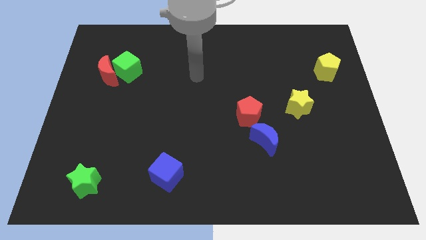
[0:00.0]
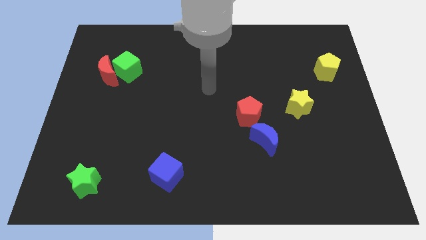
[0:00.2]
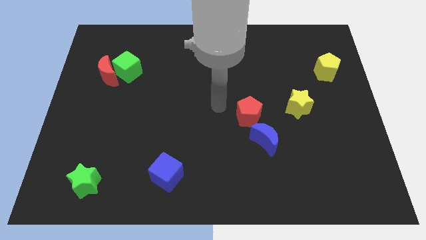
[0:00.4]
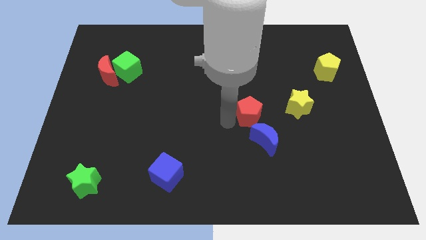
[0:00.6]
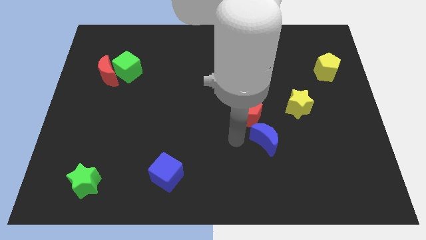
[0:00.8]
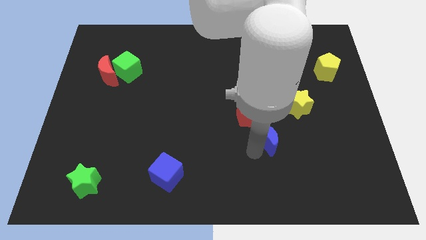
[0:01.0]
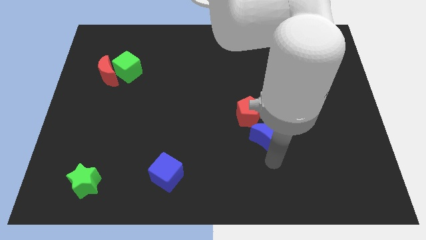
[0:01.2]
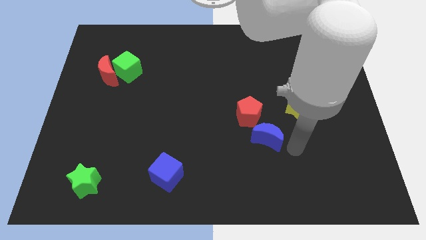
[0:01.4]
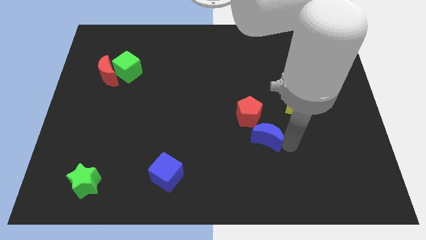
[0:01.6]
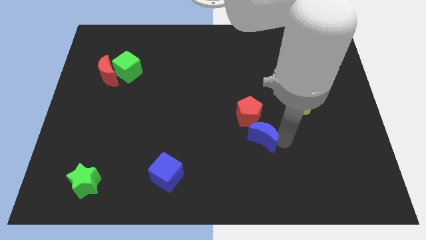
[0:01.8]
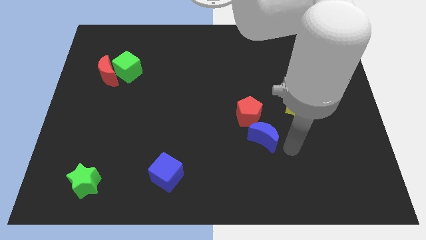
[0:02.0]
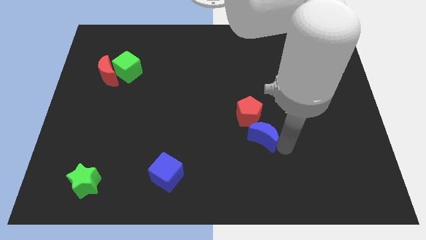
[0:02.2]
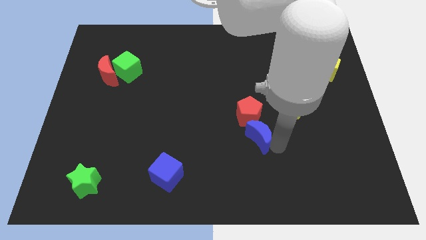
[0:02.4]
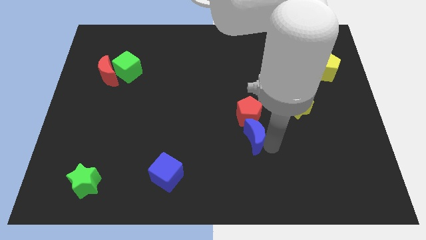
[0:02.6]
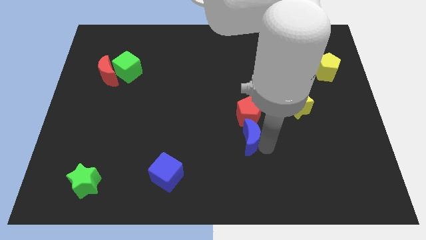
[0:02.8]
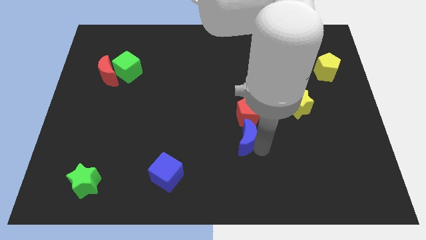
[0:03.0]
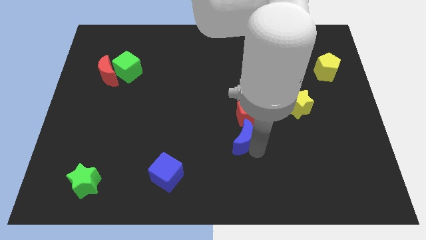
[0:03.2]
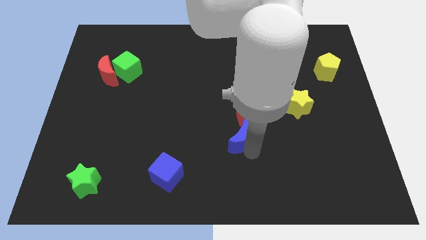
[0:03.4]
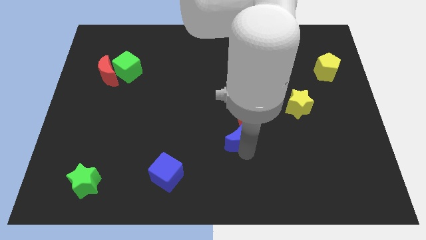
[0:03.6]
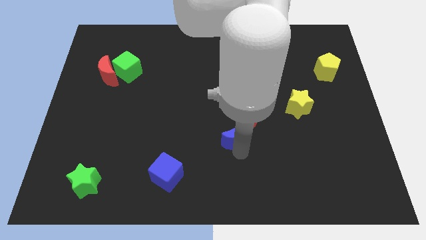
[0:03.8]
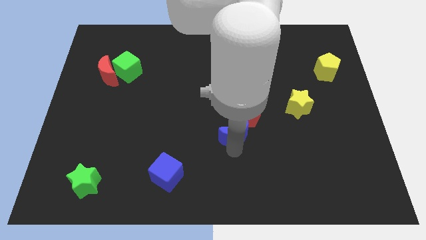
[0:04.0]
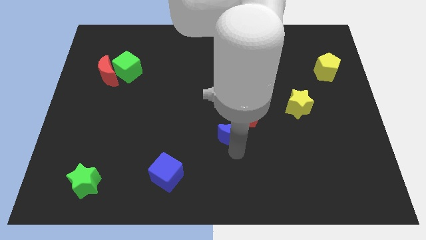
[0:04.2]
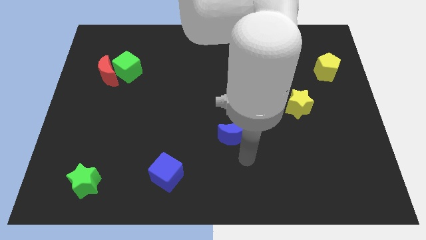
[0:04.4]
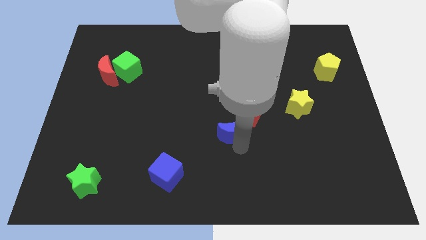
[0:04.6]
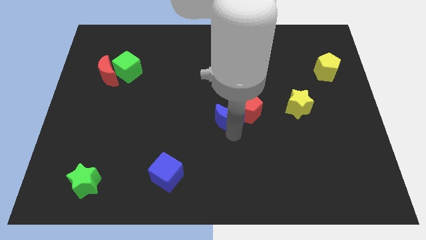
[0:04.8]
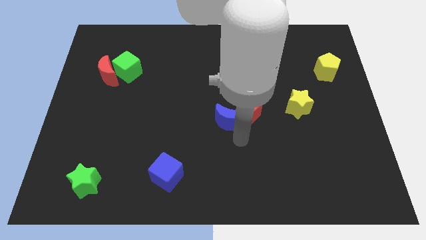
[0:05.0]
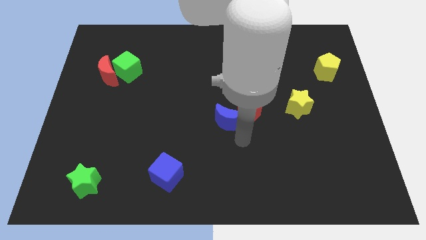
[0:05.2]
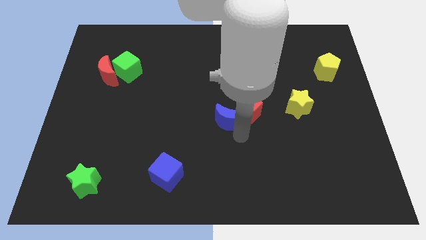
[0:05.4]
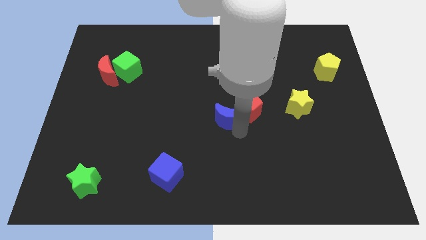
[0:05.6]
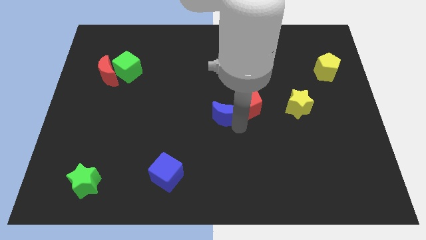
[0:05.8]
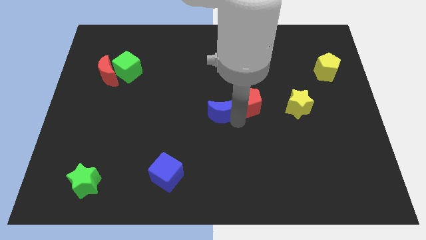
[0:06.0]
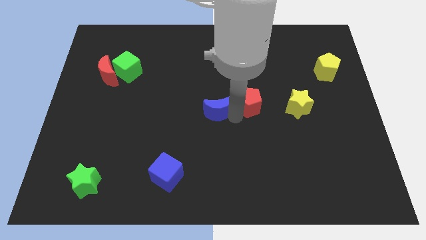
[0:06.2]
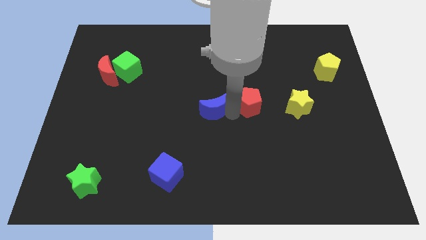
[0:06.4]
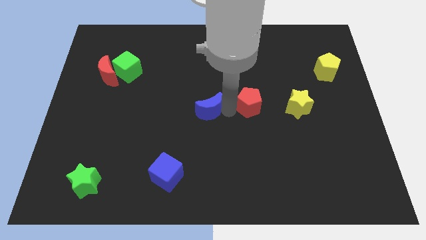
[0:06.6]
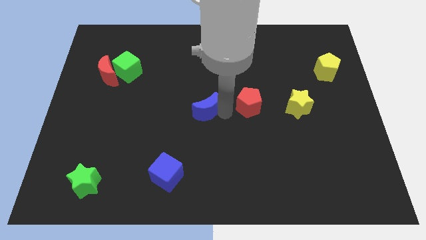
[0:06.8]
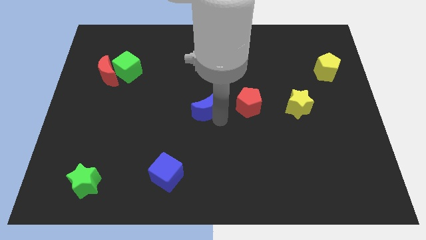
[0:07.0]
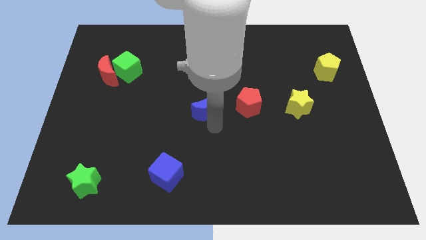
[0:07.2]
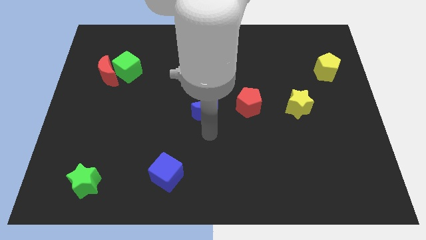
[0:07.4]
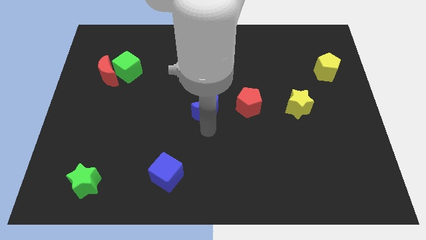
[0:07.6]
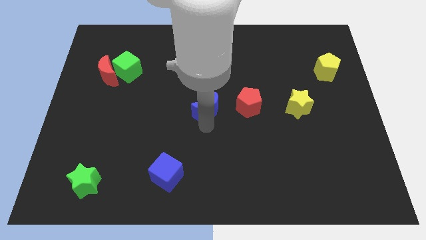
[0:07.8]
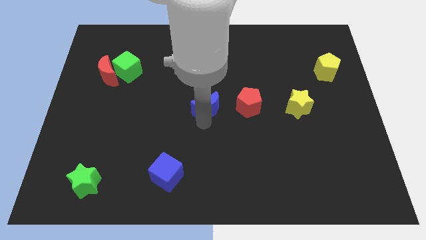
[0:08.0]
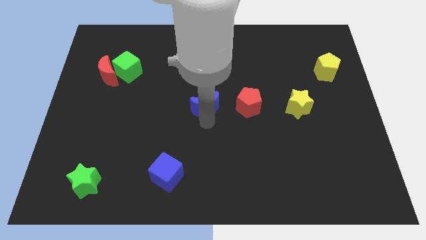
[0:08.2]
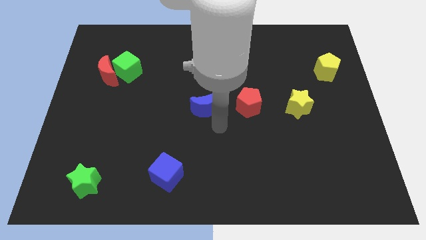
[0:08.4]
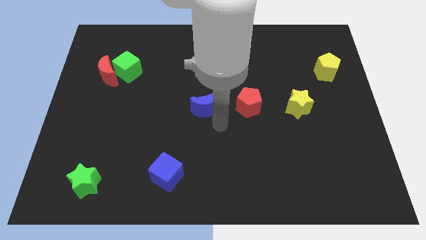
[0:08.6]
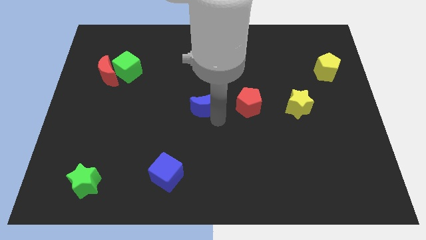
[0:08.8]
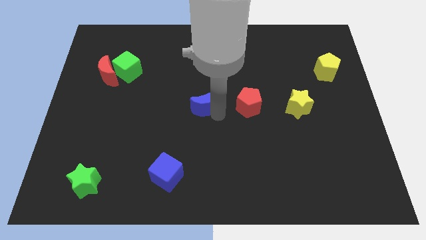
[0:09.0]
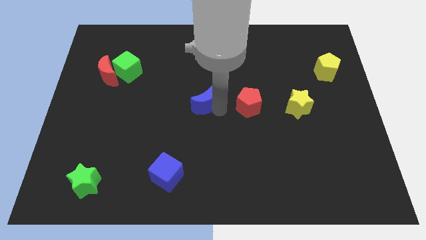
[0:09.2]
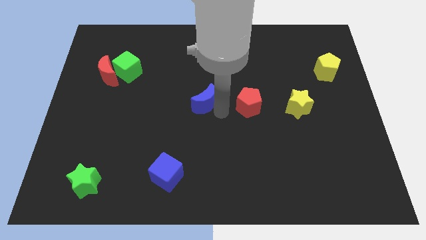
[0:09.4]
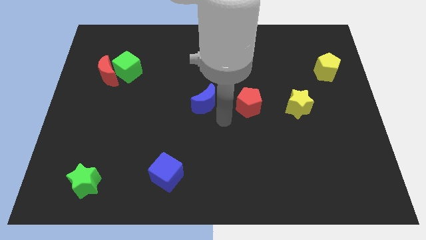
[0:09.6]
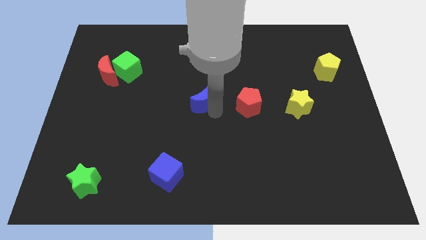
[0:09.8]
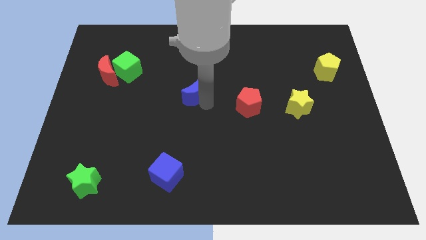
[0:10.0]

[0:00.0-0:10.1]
slide the blue moon upwards and left diagonally

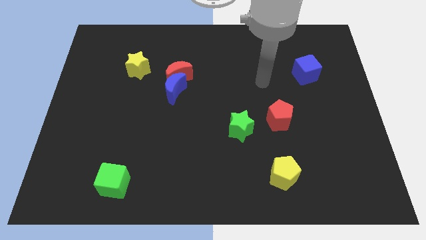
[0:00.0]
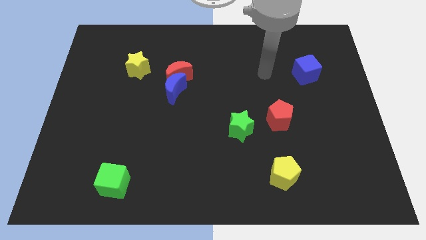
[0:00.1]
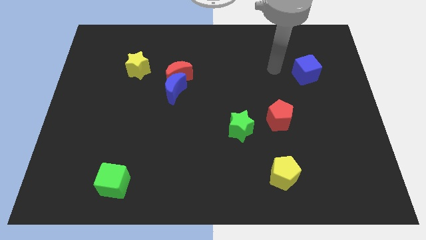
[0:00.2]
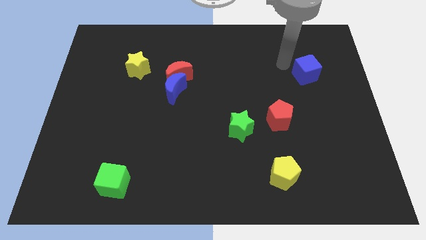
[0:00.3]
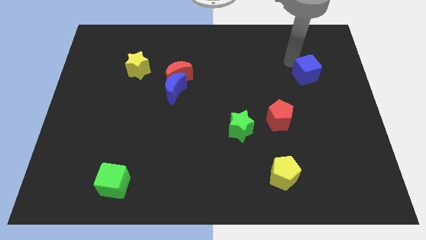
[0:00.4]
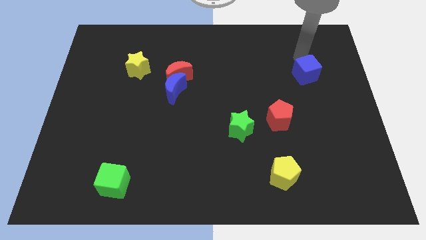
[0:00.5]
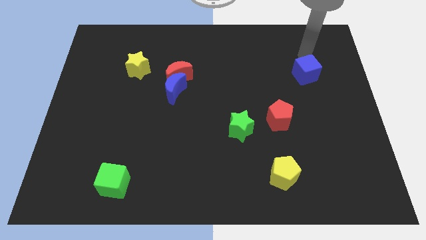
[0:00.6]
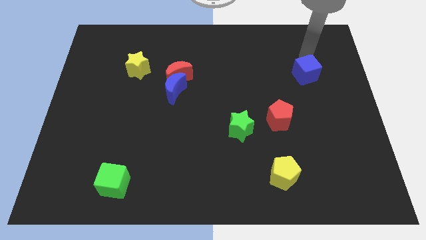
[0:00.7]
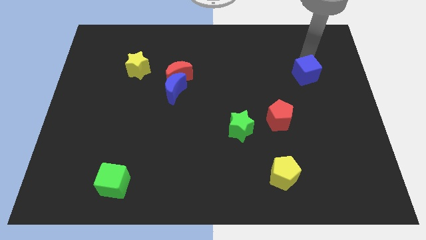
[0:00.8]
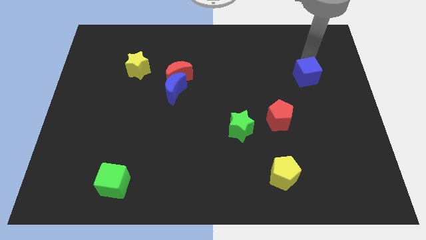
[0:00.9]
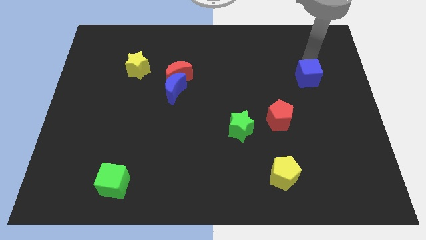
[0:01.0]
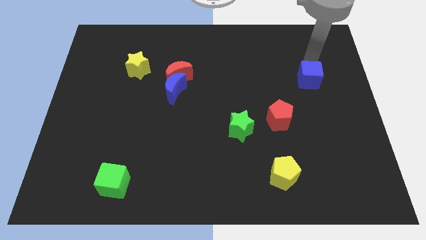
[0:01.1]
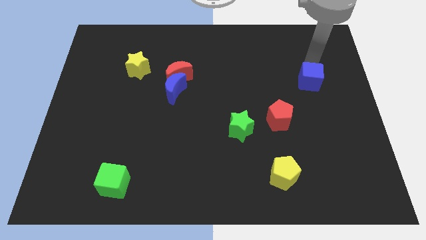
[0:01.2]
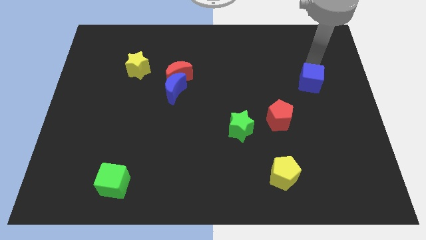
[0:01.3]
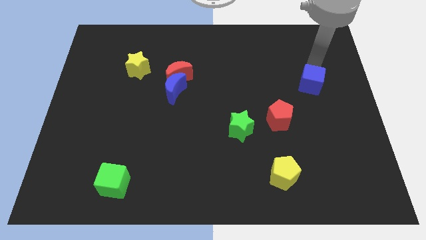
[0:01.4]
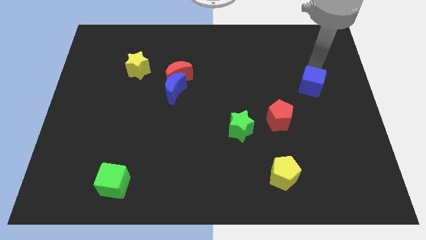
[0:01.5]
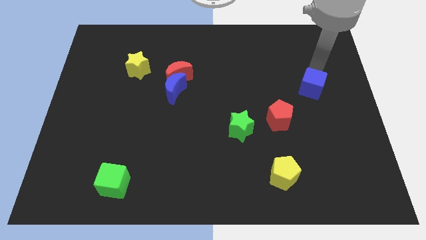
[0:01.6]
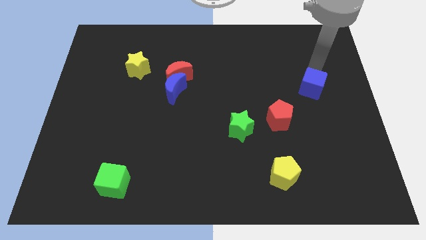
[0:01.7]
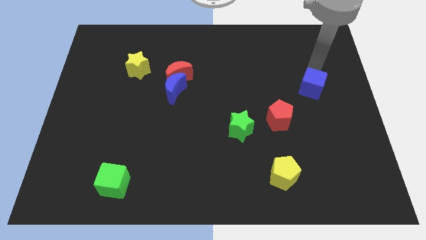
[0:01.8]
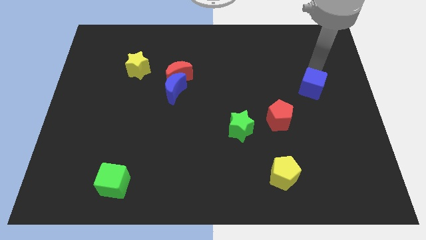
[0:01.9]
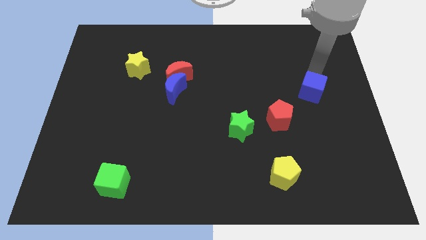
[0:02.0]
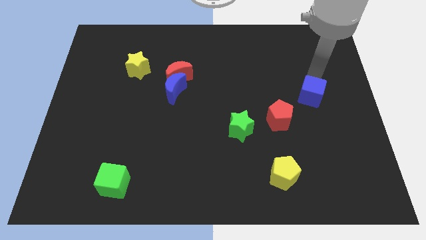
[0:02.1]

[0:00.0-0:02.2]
slightly slide the blue cube down

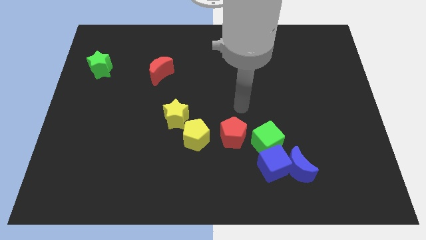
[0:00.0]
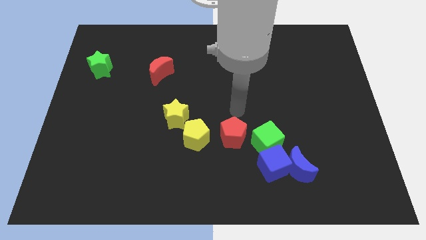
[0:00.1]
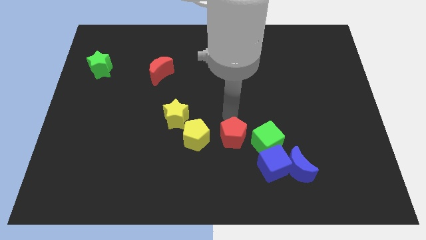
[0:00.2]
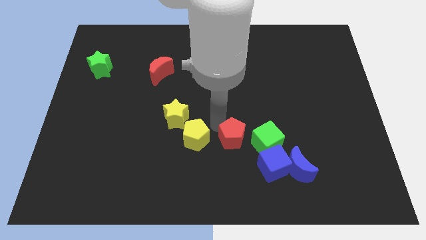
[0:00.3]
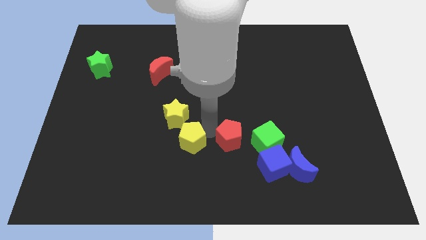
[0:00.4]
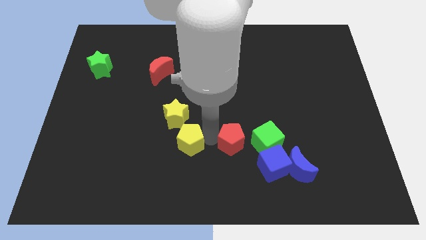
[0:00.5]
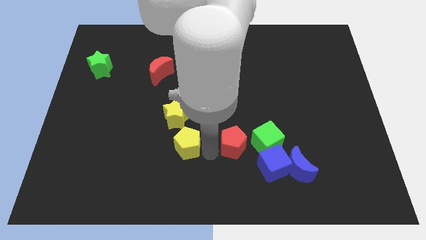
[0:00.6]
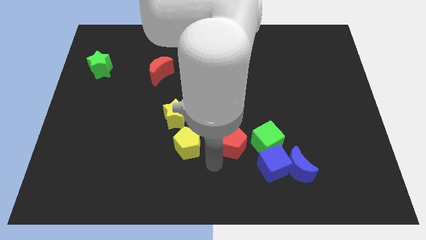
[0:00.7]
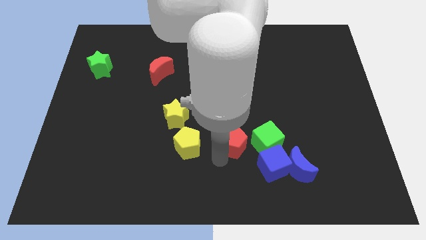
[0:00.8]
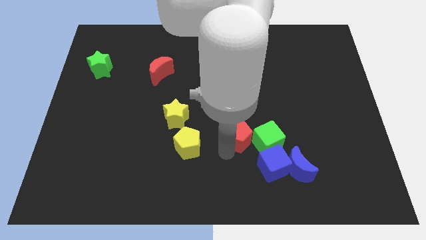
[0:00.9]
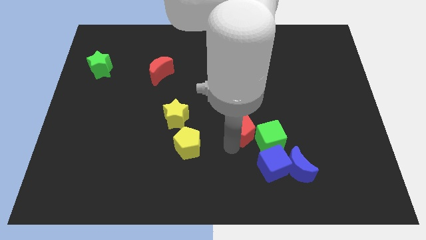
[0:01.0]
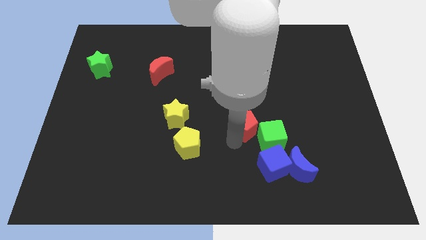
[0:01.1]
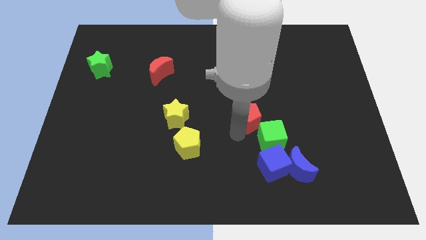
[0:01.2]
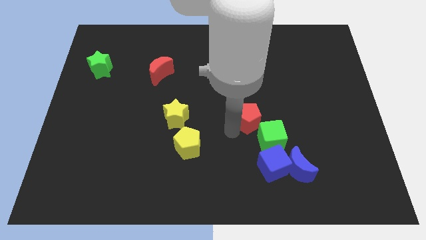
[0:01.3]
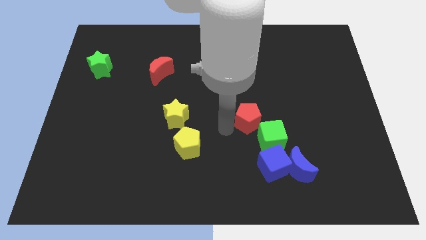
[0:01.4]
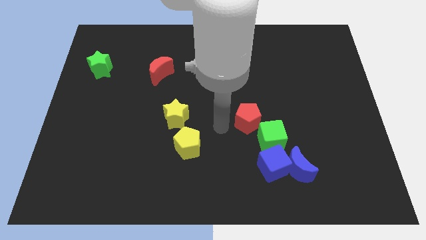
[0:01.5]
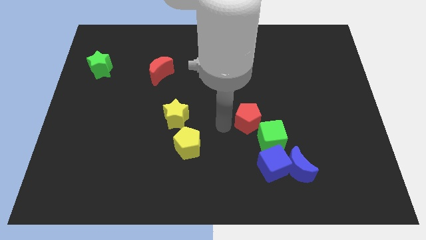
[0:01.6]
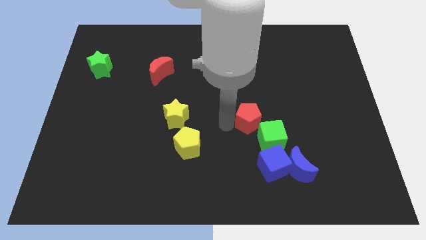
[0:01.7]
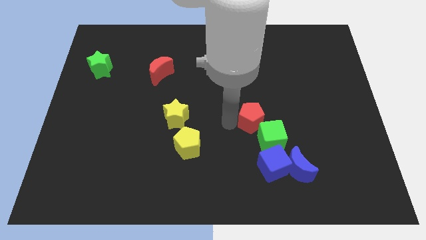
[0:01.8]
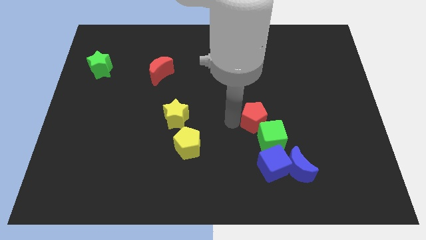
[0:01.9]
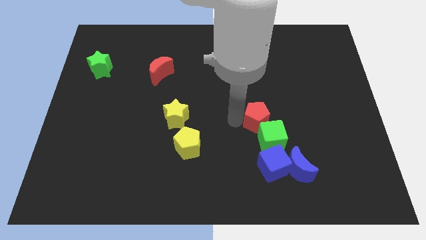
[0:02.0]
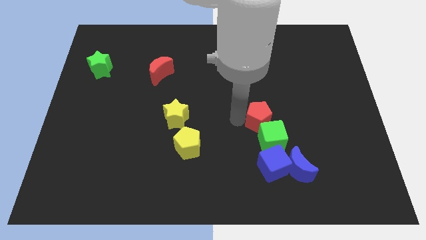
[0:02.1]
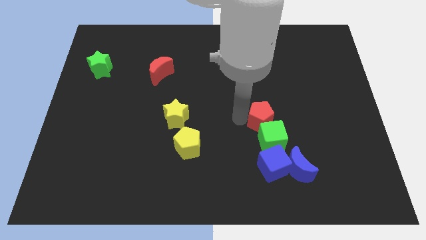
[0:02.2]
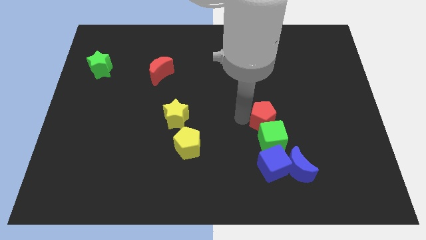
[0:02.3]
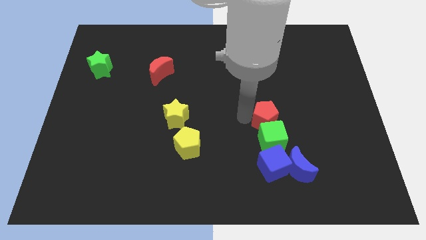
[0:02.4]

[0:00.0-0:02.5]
slightly slide the red pentagon right
